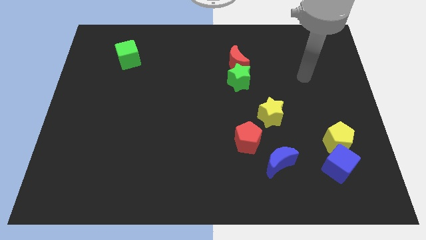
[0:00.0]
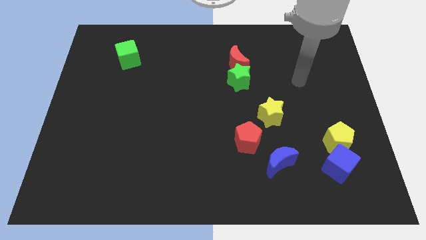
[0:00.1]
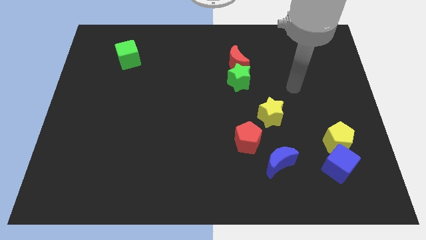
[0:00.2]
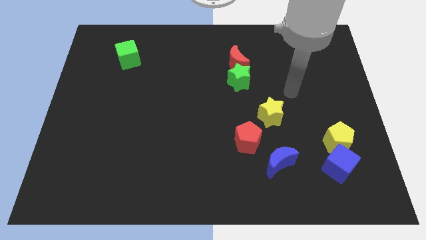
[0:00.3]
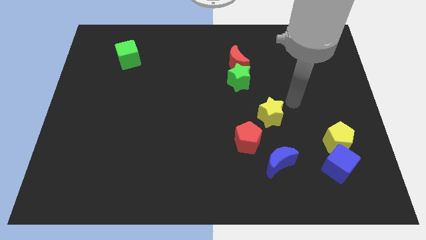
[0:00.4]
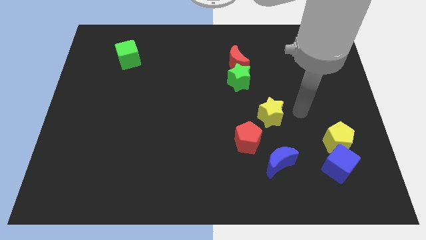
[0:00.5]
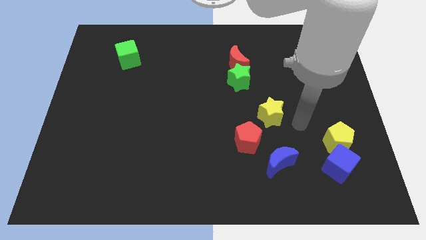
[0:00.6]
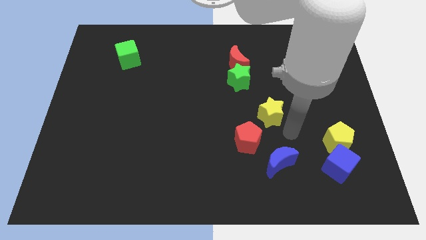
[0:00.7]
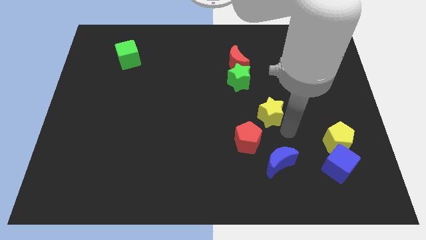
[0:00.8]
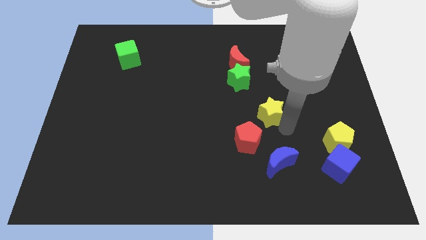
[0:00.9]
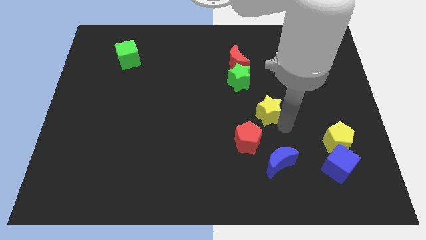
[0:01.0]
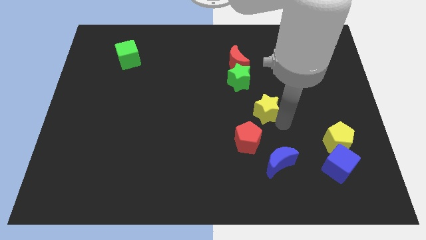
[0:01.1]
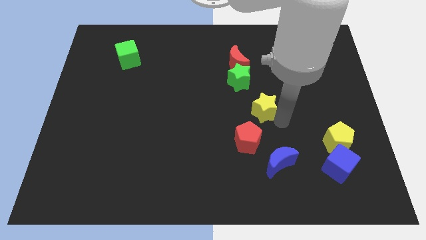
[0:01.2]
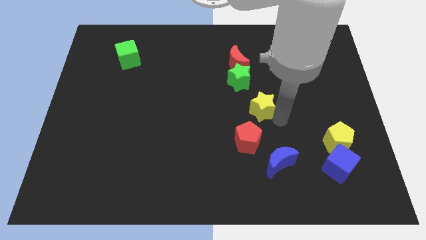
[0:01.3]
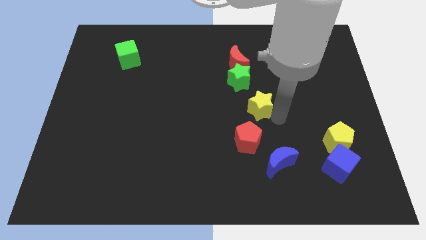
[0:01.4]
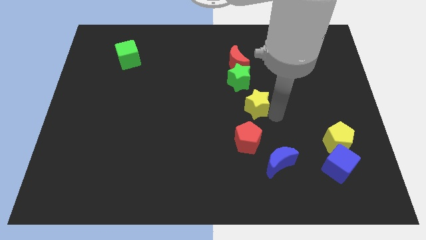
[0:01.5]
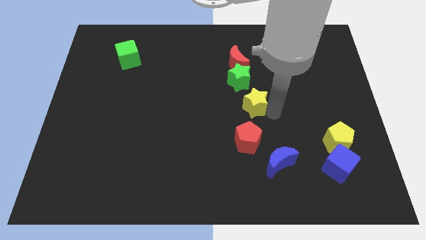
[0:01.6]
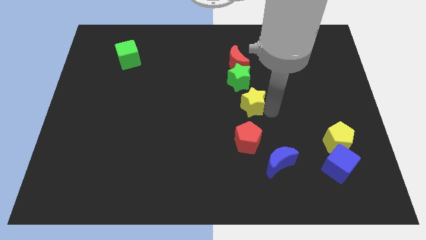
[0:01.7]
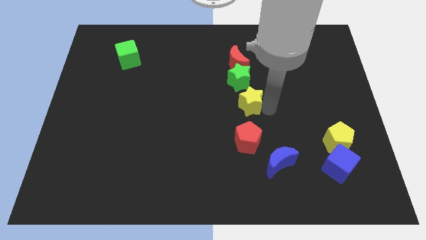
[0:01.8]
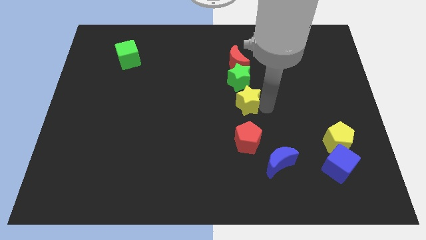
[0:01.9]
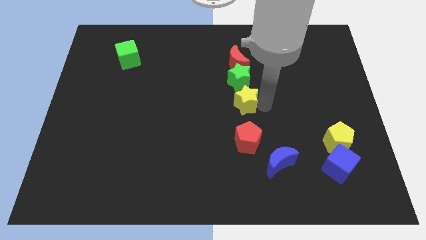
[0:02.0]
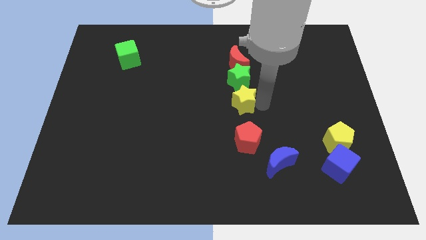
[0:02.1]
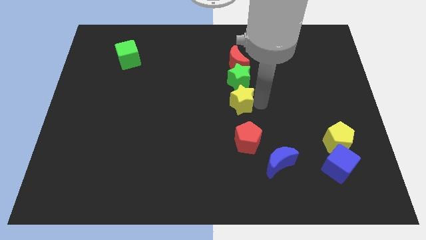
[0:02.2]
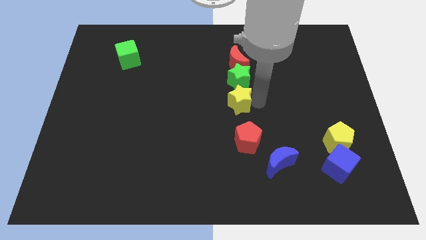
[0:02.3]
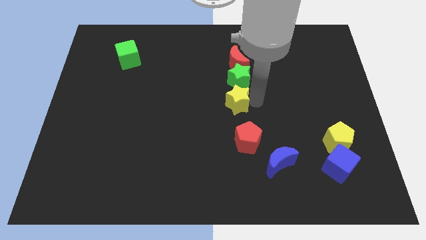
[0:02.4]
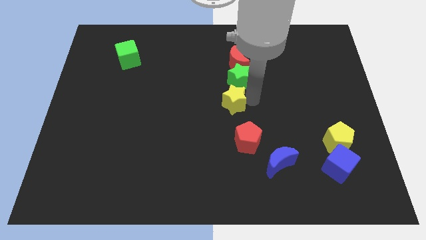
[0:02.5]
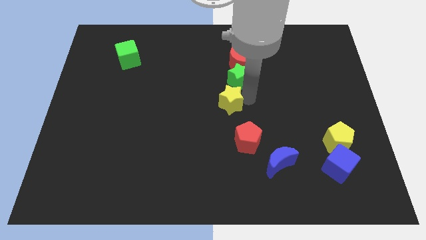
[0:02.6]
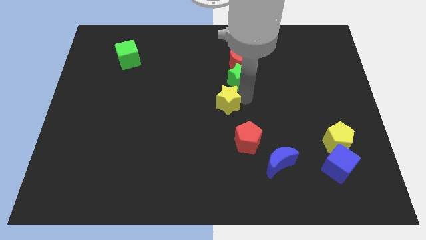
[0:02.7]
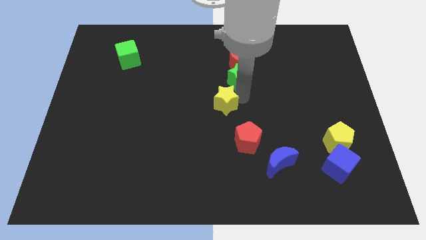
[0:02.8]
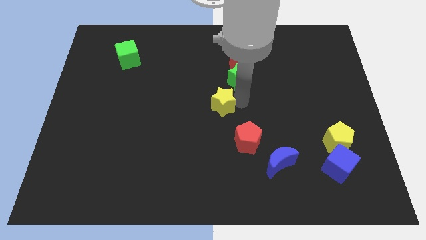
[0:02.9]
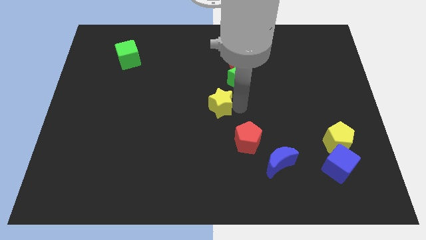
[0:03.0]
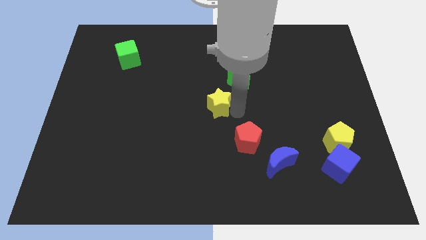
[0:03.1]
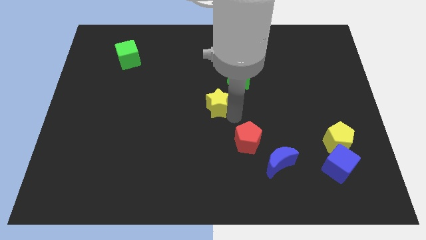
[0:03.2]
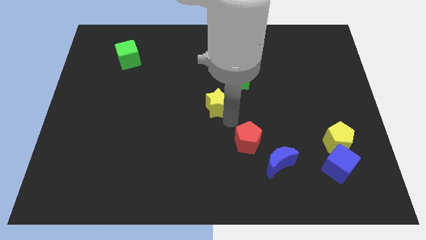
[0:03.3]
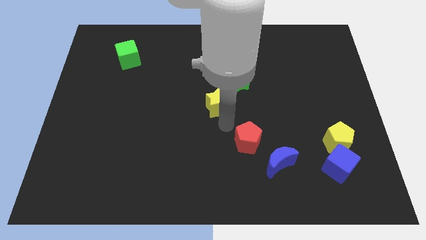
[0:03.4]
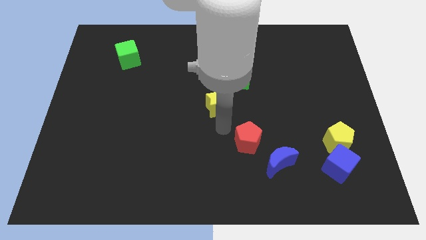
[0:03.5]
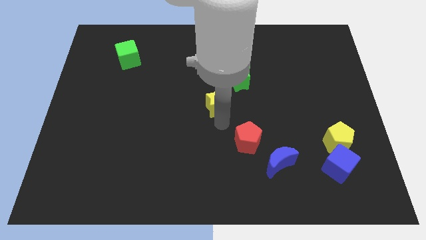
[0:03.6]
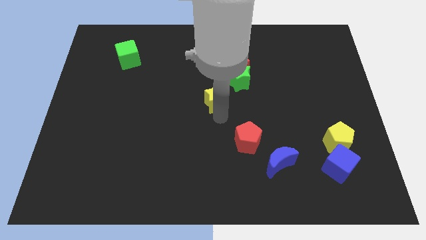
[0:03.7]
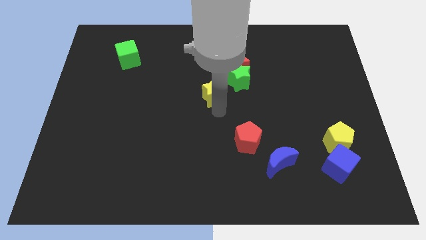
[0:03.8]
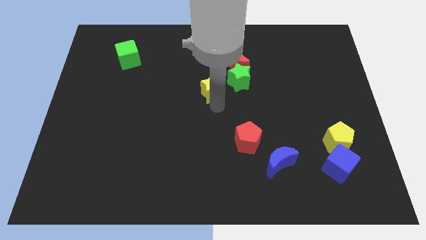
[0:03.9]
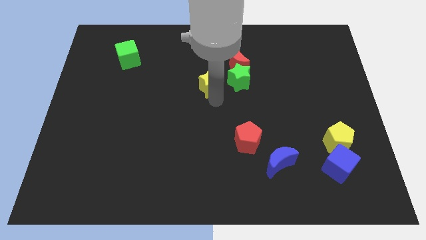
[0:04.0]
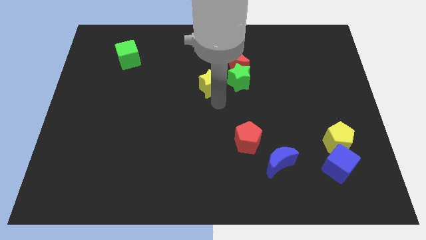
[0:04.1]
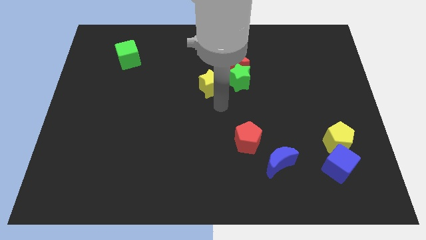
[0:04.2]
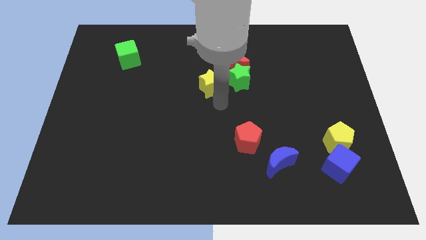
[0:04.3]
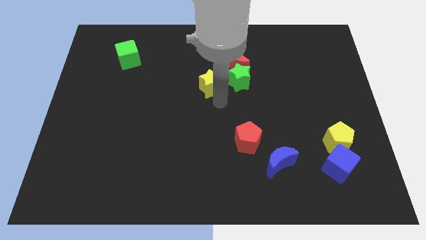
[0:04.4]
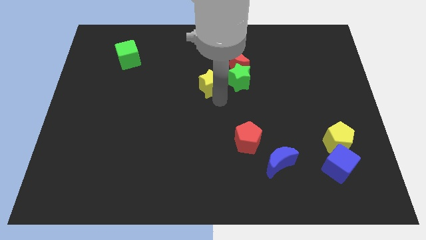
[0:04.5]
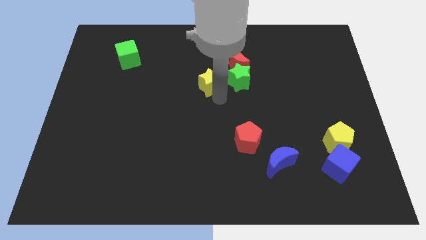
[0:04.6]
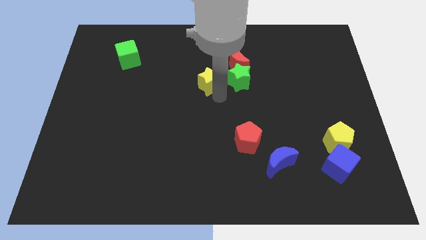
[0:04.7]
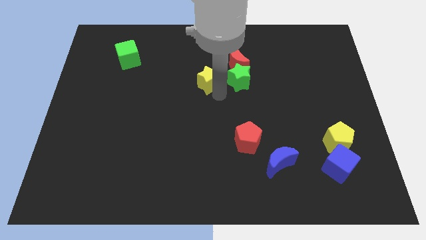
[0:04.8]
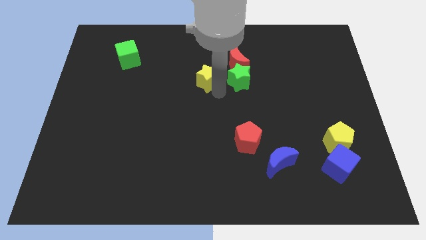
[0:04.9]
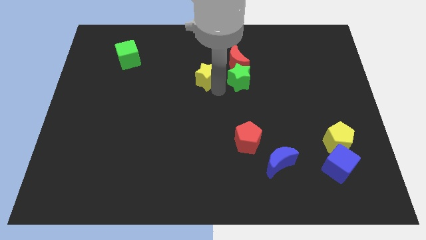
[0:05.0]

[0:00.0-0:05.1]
push the yellow star to the left of the red moon

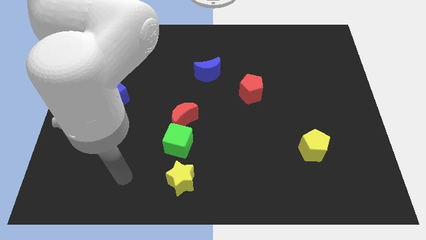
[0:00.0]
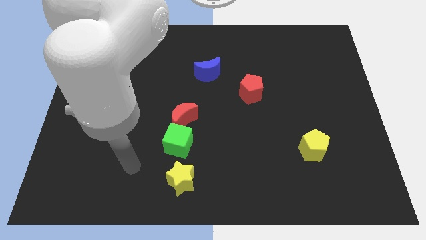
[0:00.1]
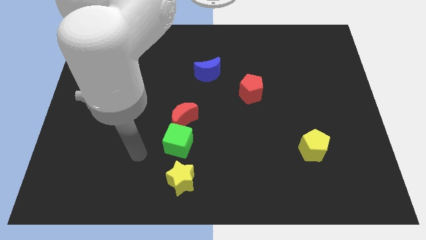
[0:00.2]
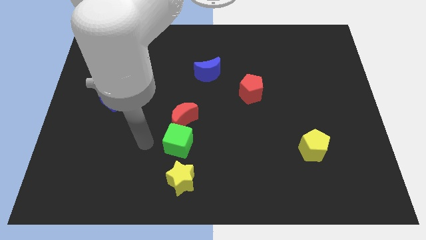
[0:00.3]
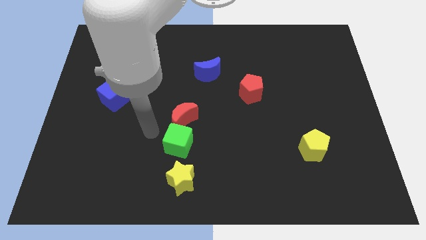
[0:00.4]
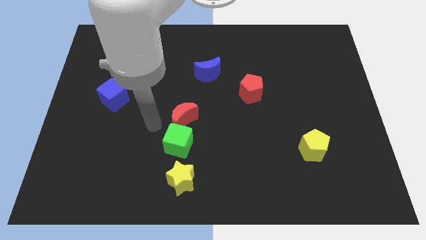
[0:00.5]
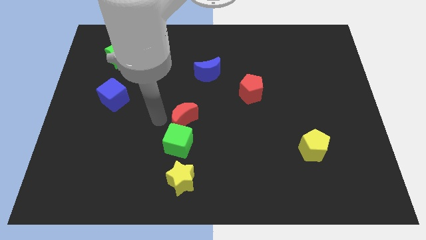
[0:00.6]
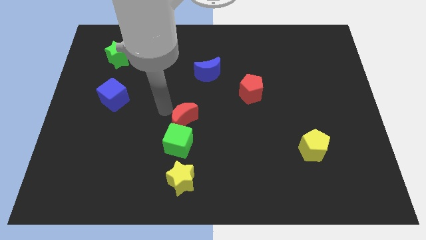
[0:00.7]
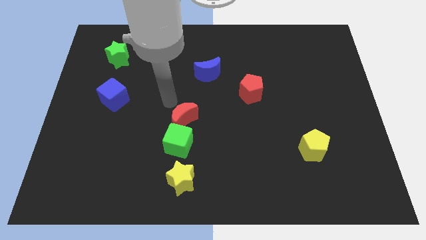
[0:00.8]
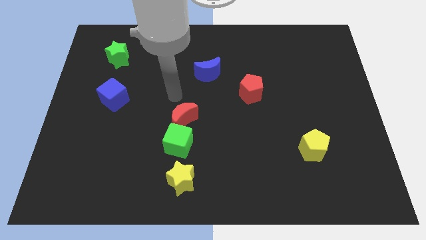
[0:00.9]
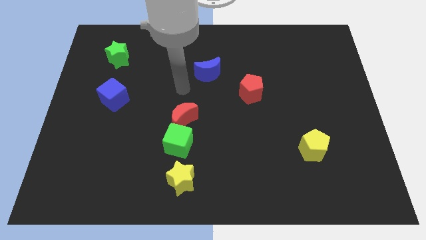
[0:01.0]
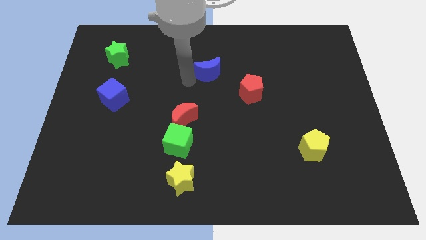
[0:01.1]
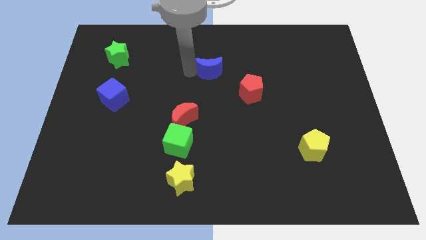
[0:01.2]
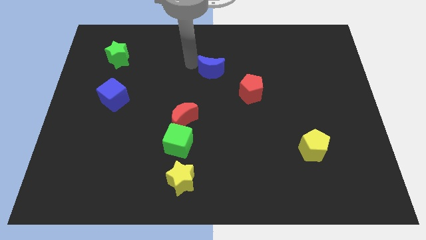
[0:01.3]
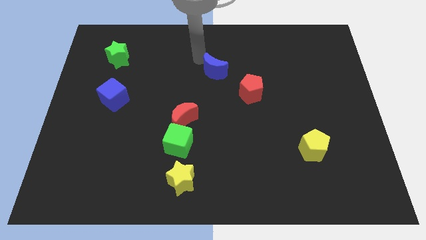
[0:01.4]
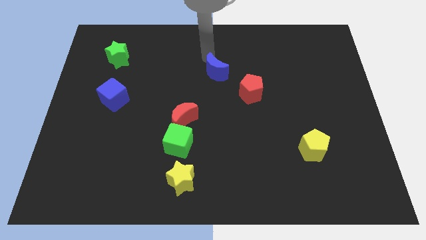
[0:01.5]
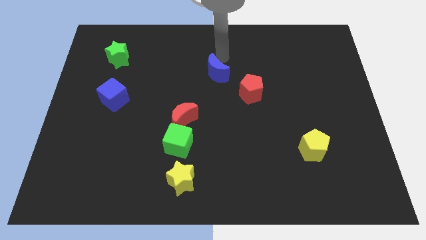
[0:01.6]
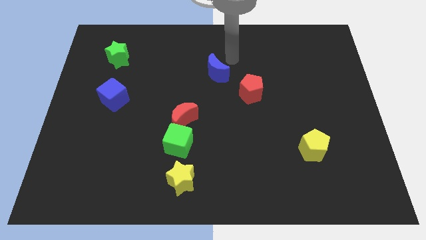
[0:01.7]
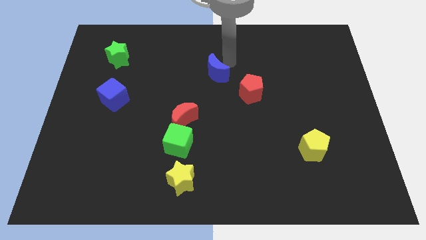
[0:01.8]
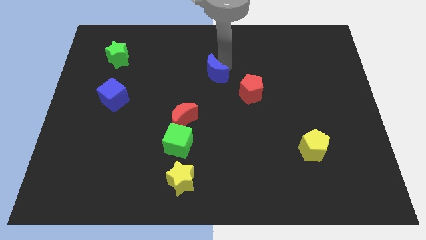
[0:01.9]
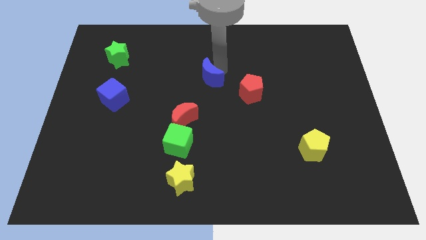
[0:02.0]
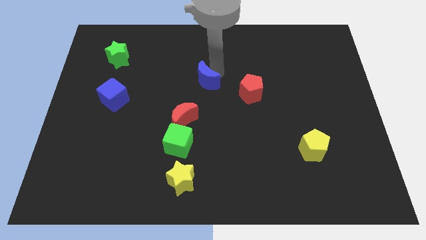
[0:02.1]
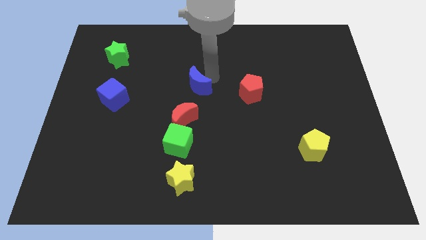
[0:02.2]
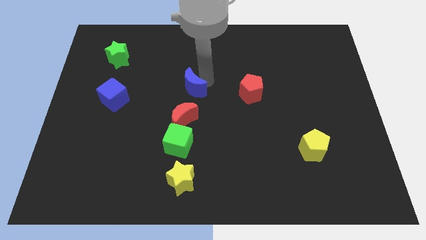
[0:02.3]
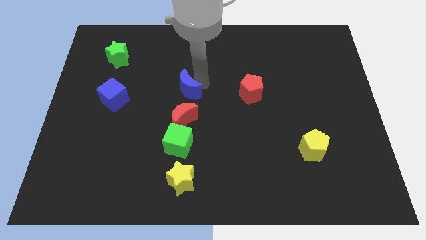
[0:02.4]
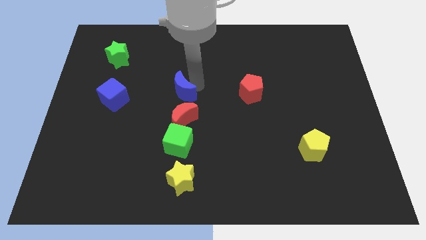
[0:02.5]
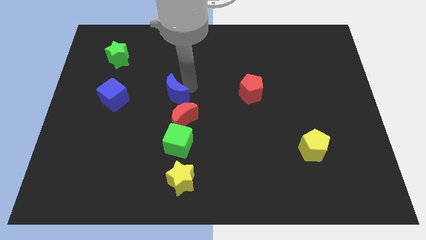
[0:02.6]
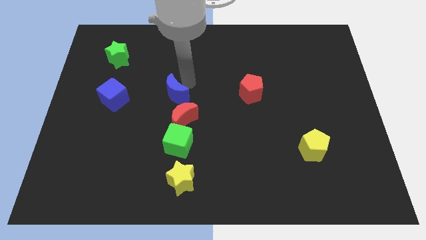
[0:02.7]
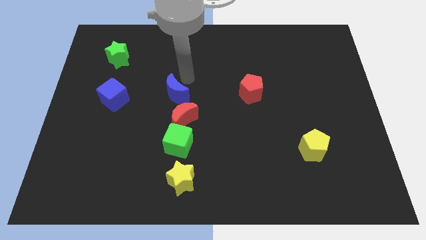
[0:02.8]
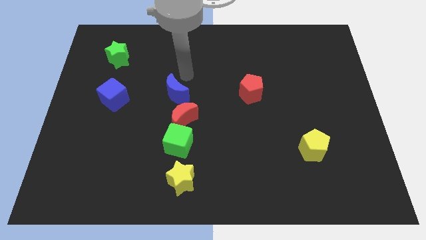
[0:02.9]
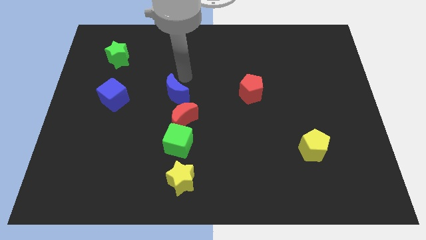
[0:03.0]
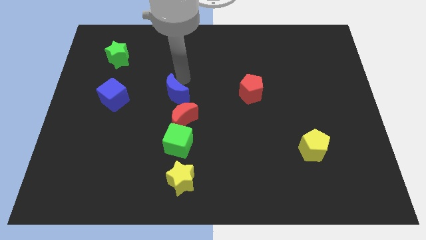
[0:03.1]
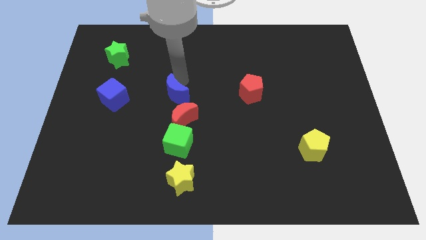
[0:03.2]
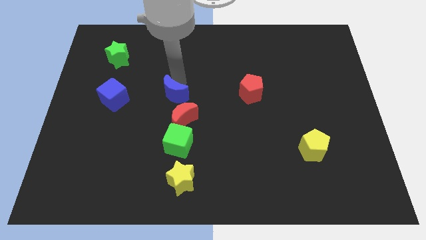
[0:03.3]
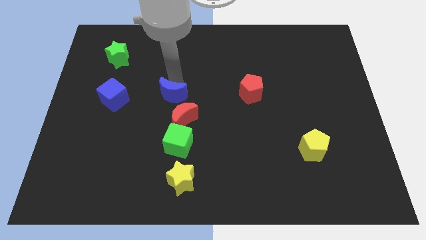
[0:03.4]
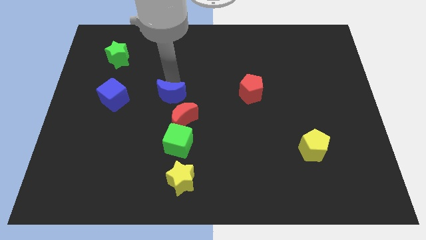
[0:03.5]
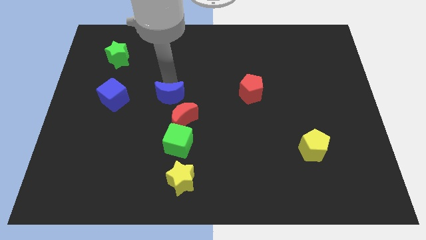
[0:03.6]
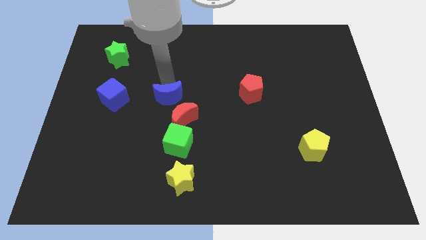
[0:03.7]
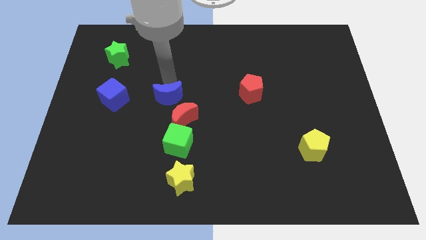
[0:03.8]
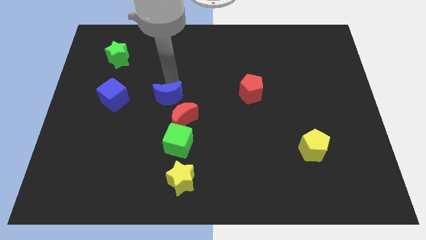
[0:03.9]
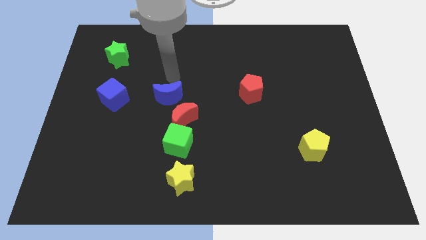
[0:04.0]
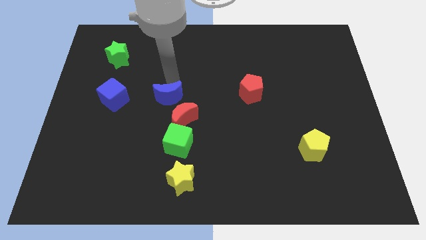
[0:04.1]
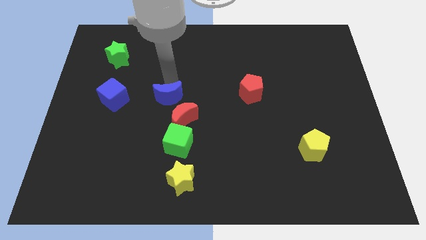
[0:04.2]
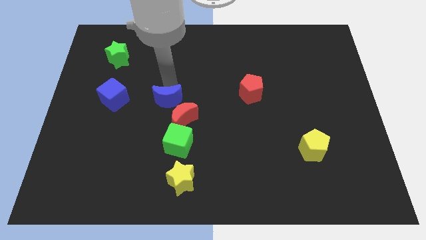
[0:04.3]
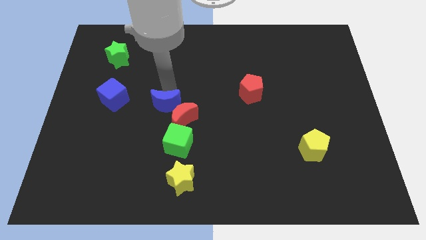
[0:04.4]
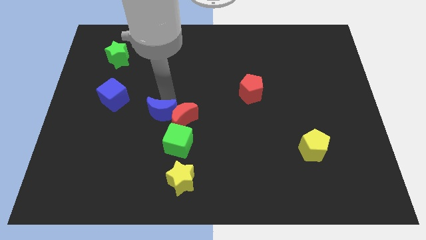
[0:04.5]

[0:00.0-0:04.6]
push the blue moon diagonally down and to the left of the red moon
